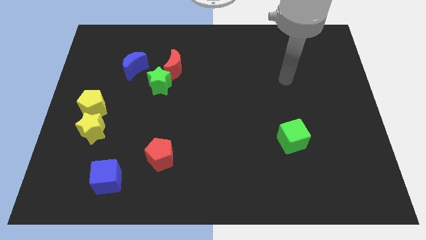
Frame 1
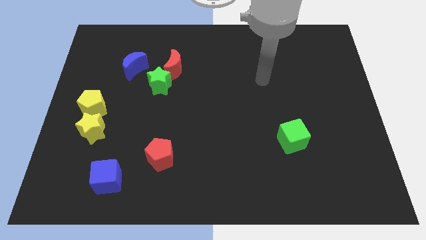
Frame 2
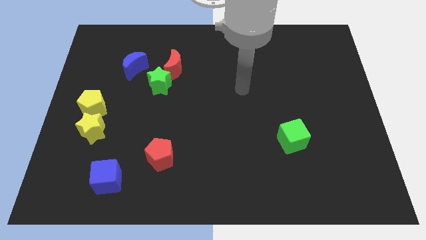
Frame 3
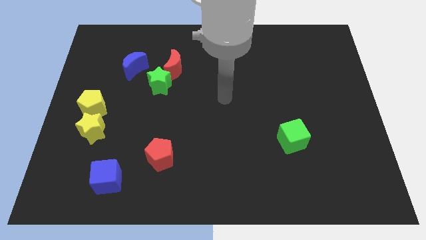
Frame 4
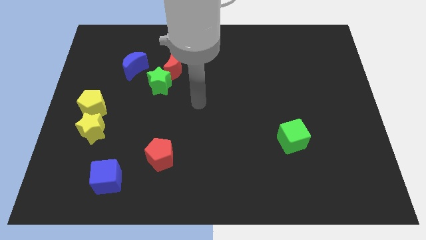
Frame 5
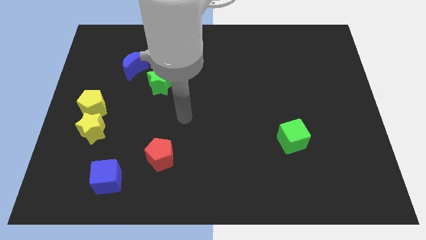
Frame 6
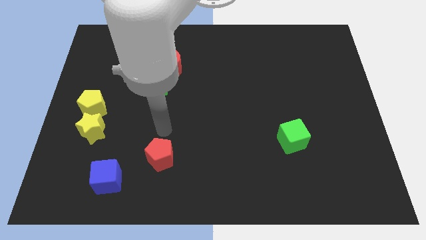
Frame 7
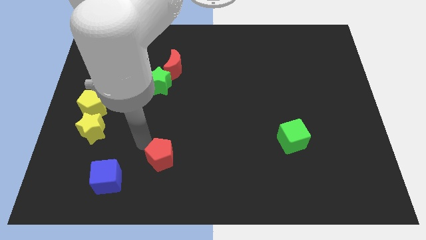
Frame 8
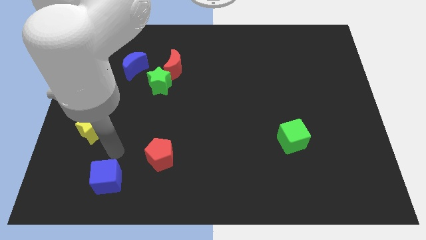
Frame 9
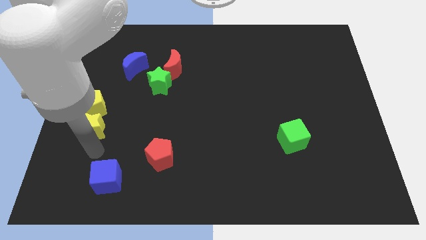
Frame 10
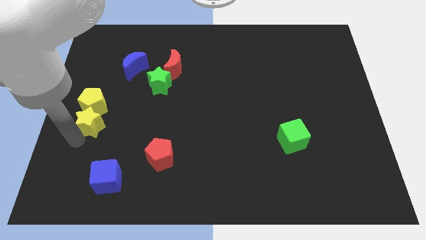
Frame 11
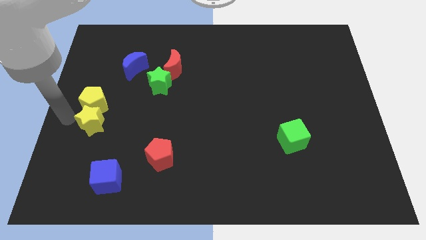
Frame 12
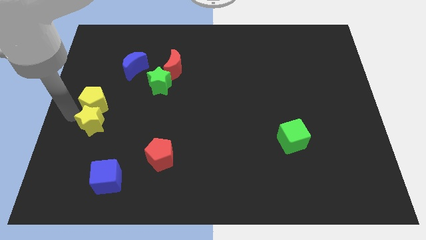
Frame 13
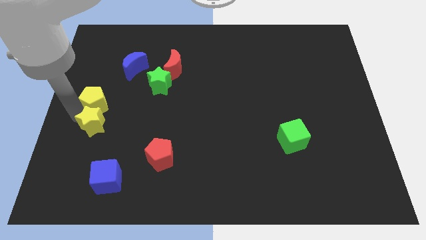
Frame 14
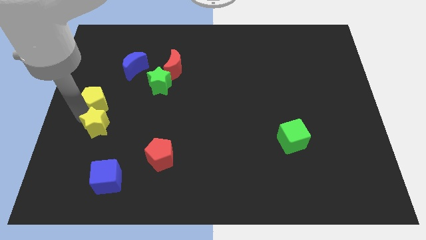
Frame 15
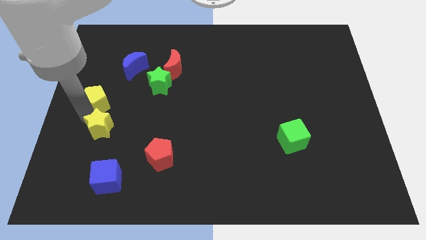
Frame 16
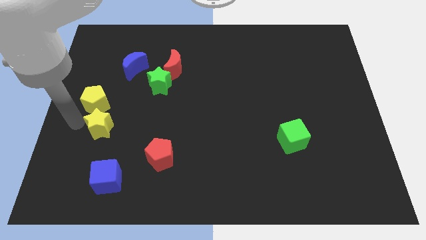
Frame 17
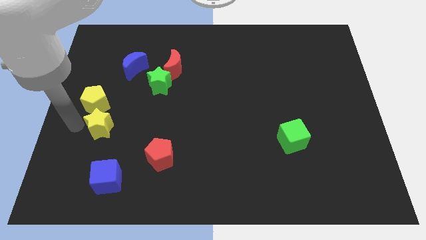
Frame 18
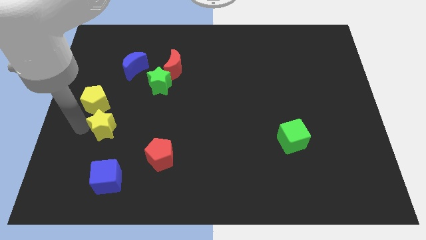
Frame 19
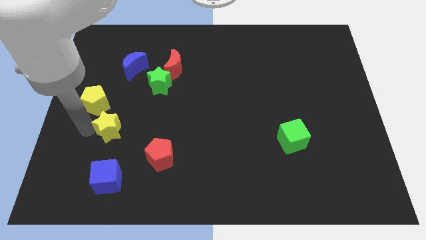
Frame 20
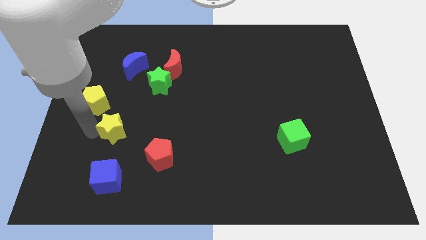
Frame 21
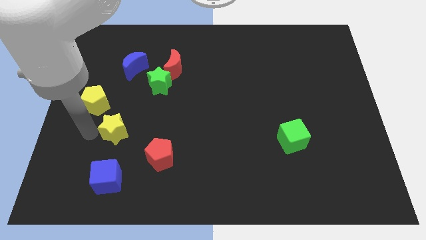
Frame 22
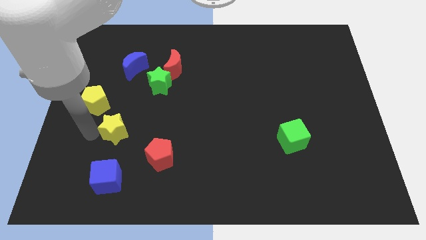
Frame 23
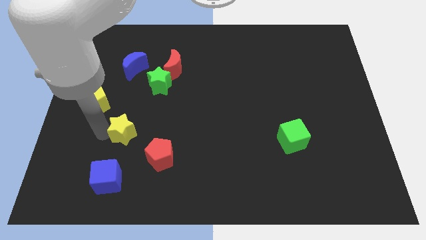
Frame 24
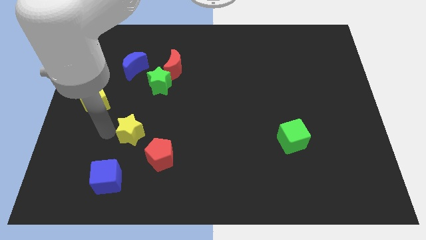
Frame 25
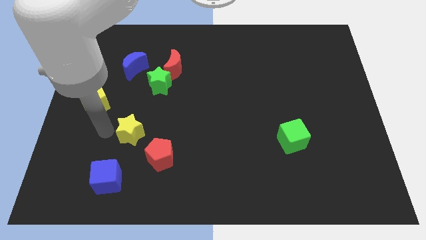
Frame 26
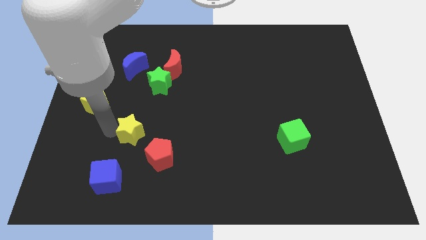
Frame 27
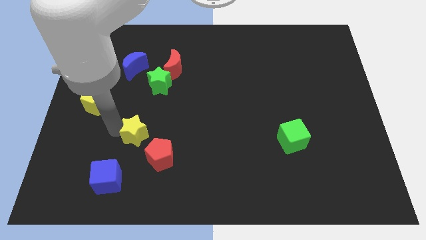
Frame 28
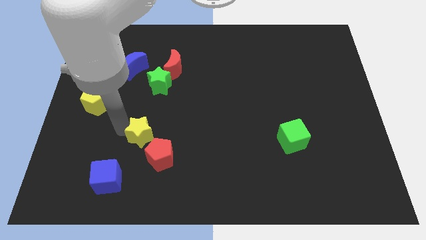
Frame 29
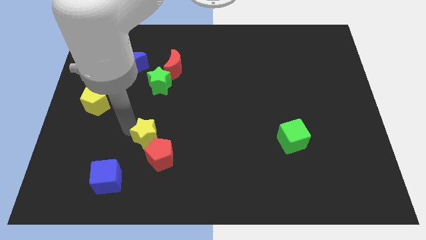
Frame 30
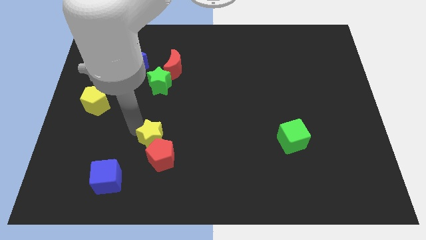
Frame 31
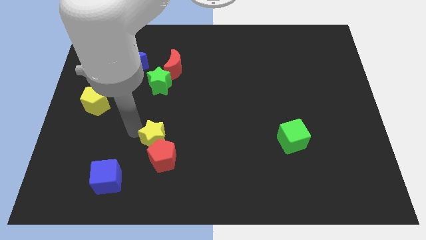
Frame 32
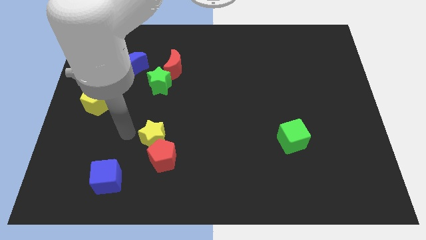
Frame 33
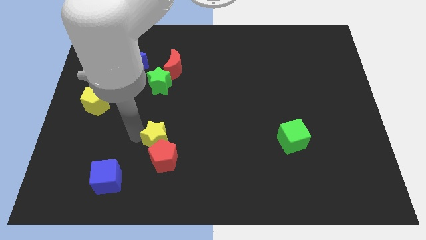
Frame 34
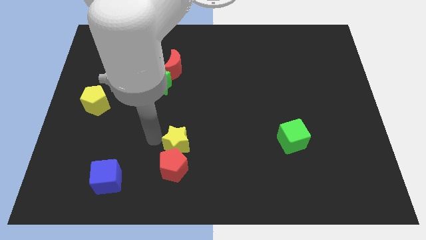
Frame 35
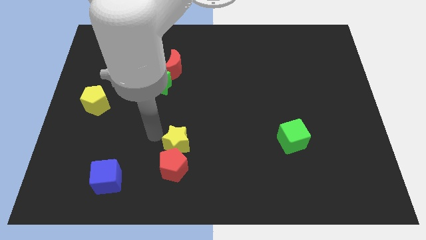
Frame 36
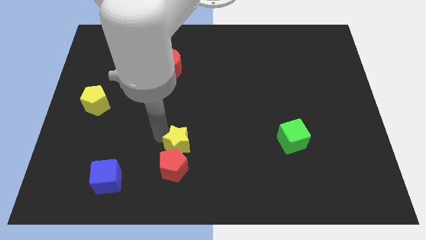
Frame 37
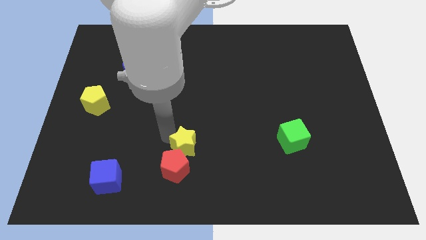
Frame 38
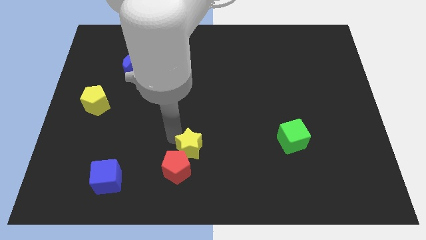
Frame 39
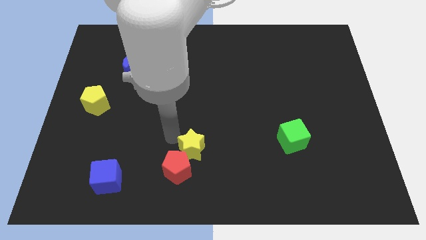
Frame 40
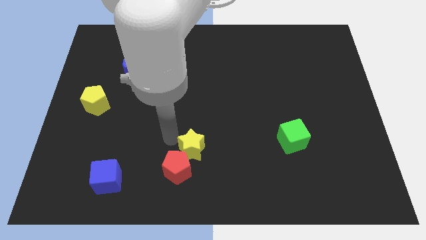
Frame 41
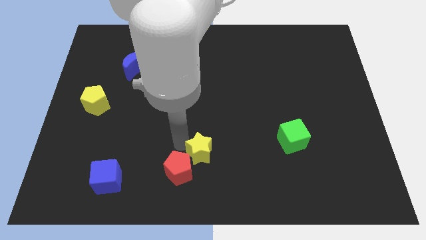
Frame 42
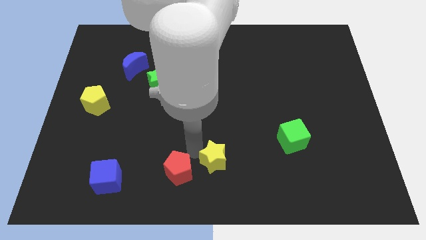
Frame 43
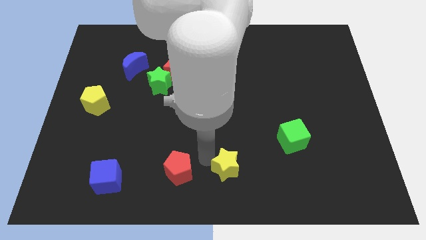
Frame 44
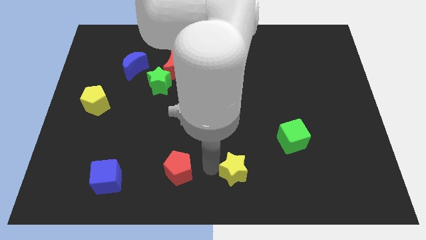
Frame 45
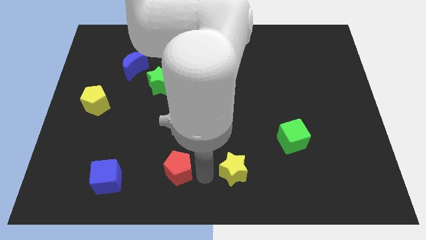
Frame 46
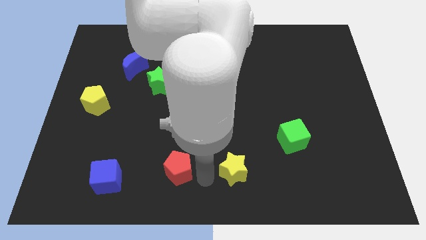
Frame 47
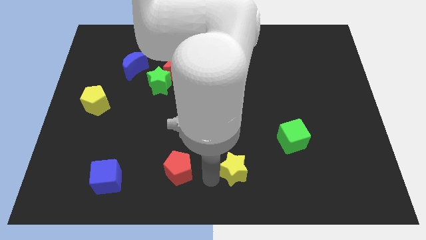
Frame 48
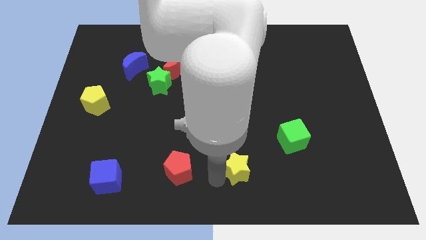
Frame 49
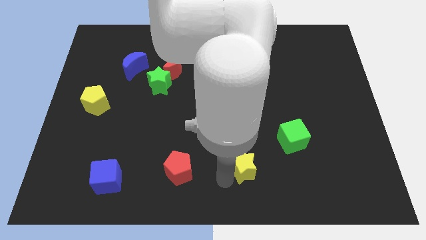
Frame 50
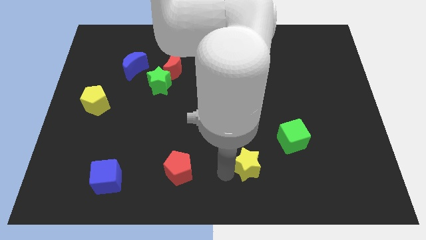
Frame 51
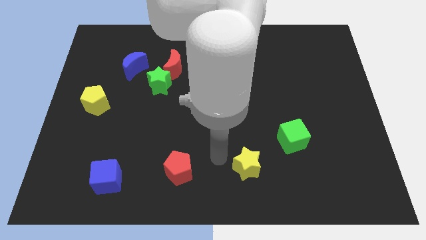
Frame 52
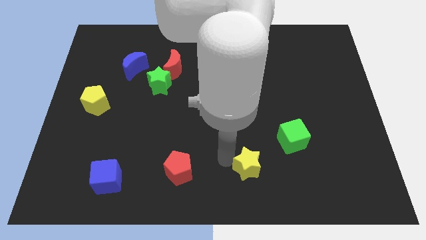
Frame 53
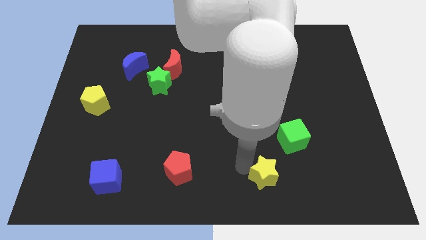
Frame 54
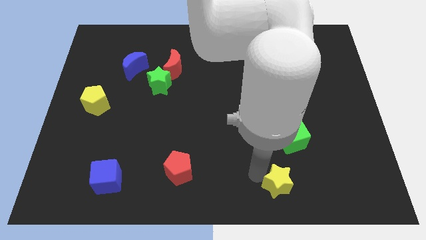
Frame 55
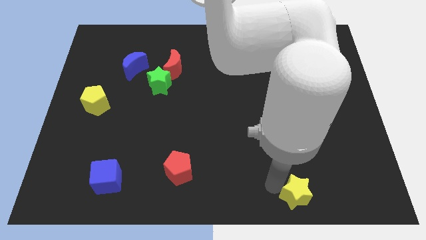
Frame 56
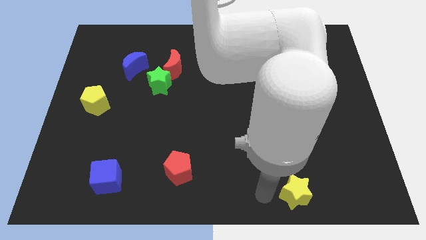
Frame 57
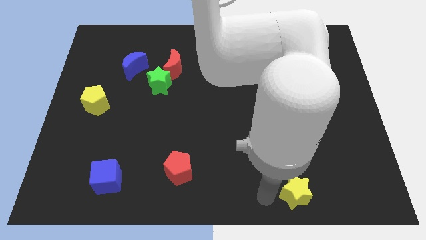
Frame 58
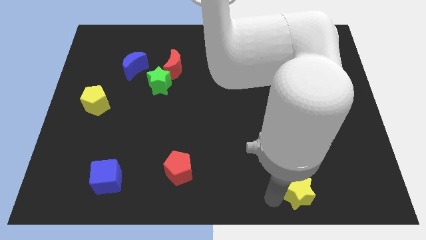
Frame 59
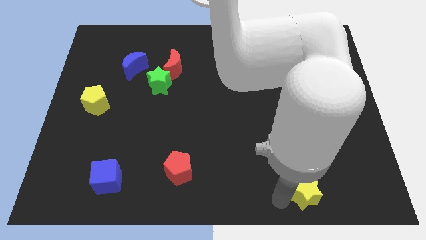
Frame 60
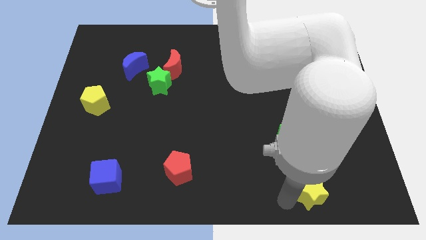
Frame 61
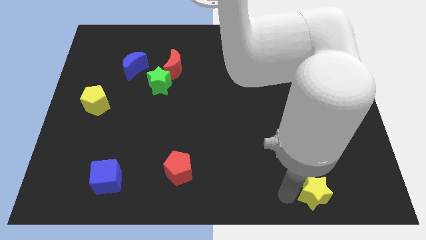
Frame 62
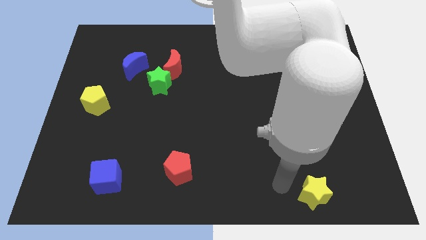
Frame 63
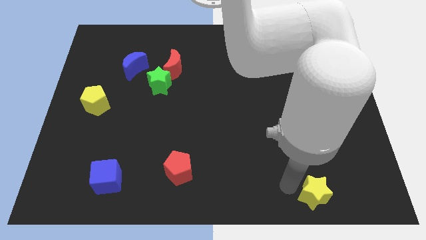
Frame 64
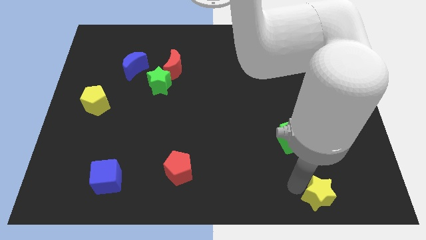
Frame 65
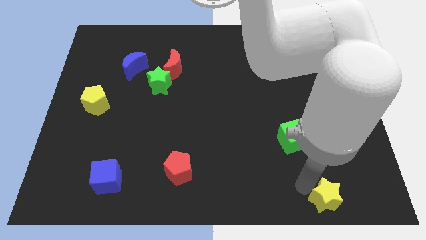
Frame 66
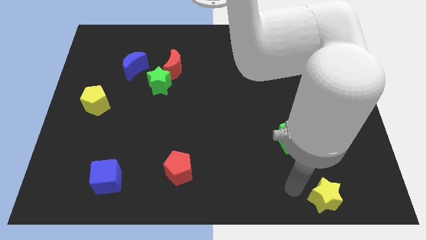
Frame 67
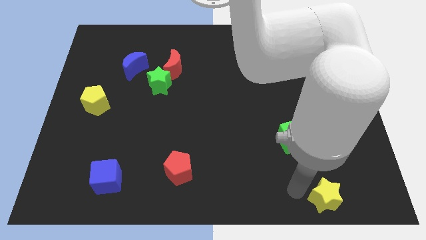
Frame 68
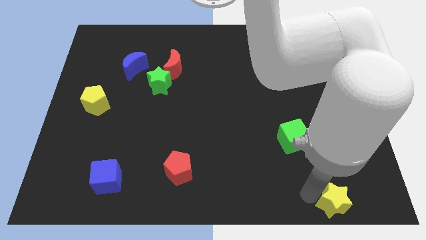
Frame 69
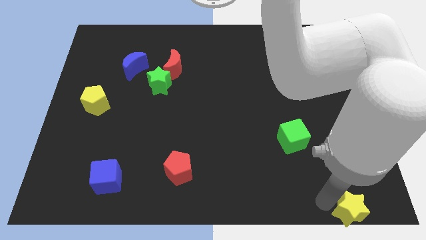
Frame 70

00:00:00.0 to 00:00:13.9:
move the yellow star to the bottom right
